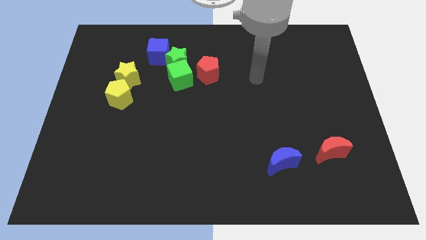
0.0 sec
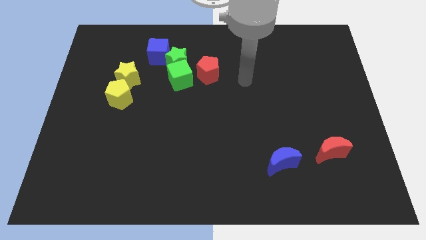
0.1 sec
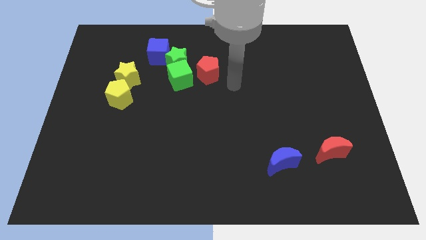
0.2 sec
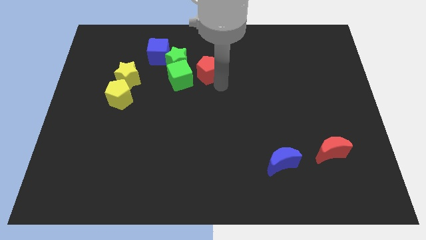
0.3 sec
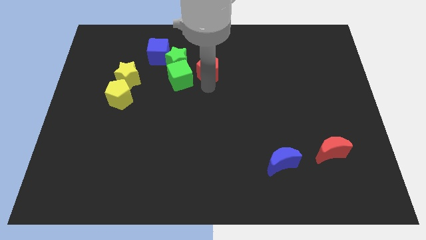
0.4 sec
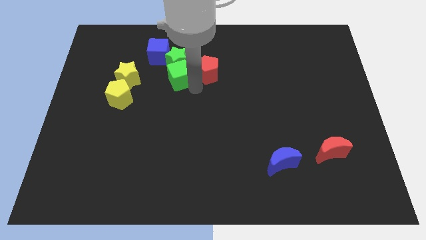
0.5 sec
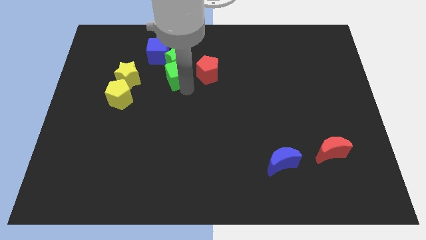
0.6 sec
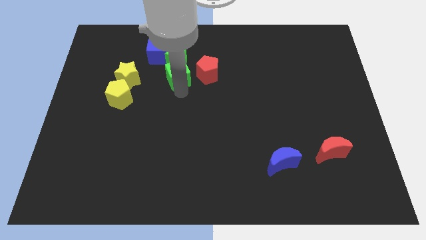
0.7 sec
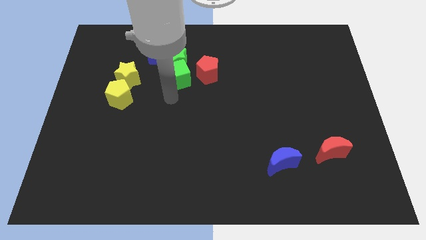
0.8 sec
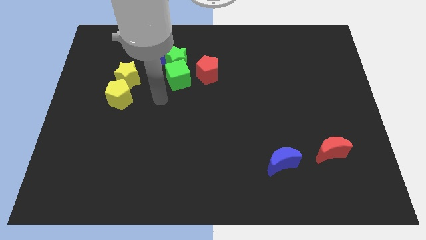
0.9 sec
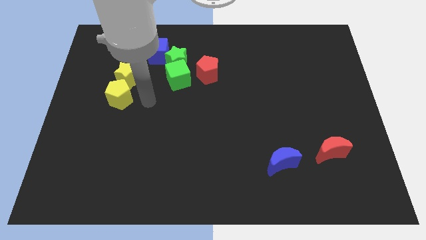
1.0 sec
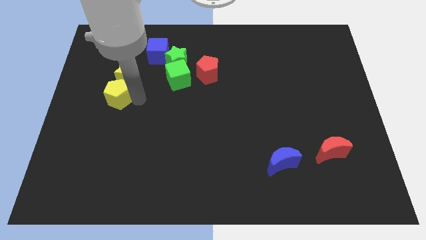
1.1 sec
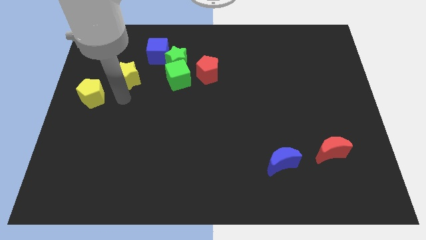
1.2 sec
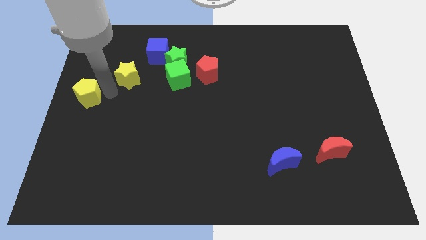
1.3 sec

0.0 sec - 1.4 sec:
pull the yellow star apart from the yellow pentagon

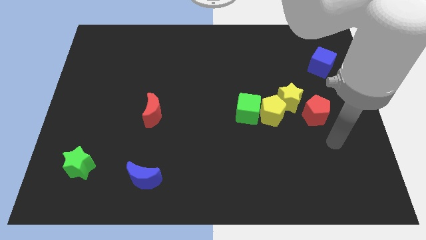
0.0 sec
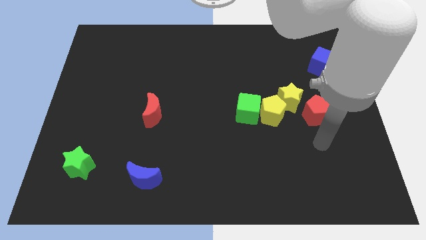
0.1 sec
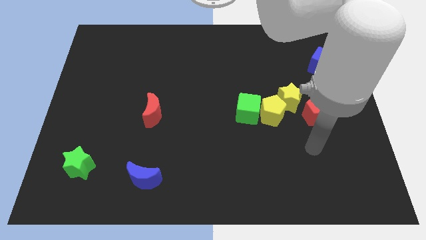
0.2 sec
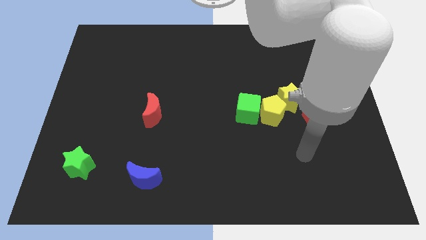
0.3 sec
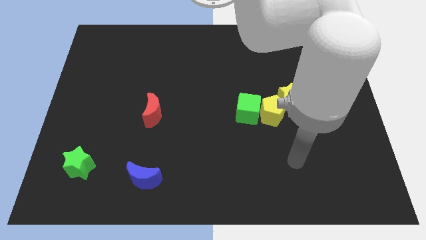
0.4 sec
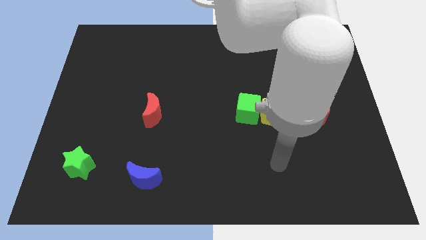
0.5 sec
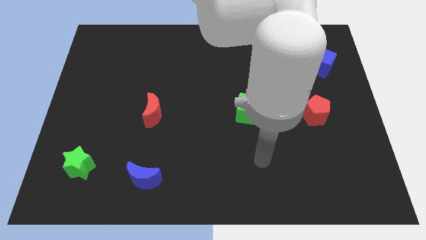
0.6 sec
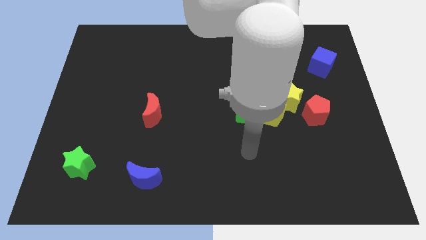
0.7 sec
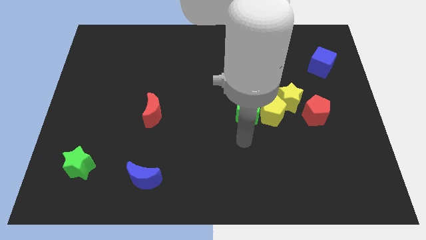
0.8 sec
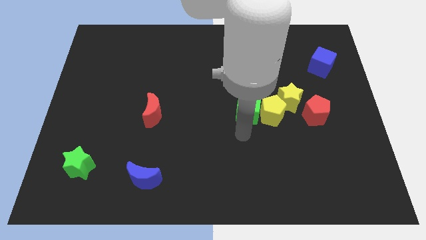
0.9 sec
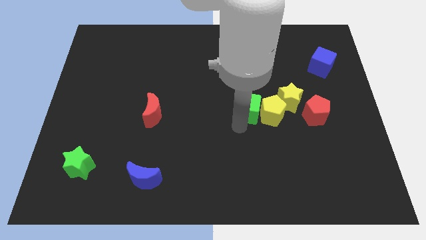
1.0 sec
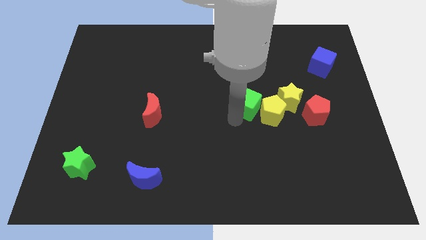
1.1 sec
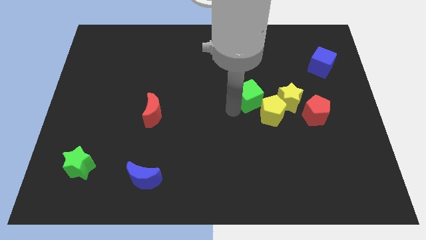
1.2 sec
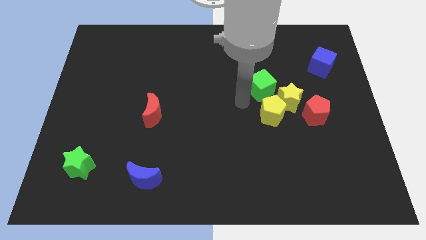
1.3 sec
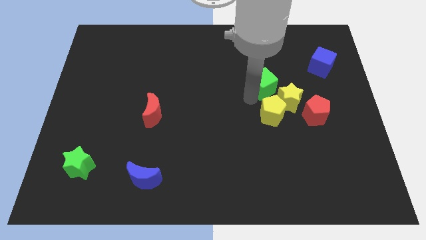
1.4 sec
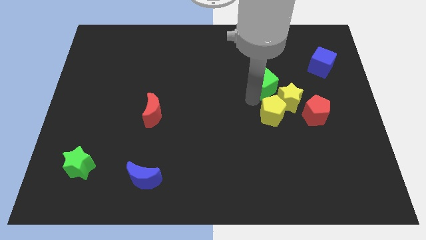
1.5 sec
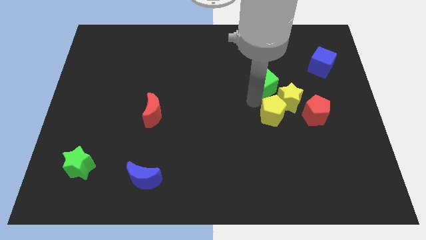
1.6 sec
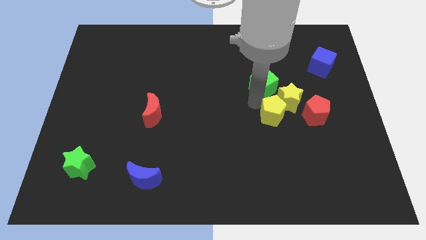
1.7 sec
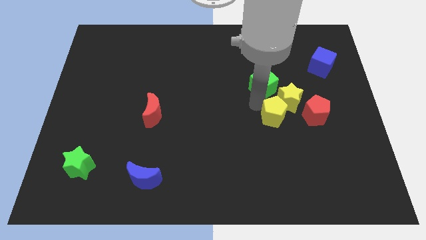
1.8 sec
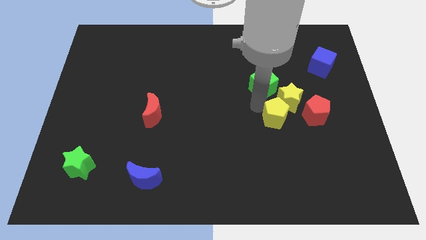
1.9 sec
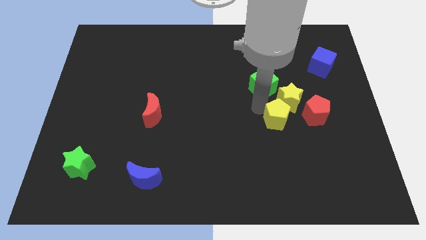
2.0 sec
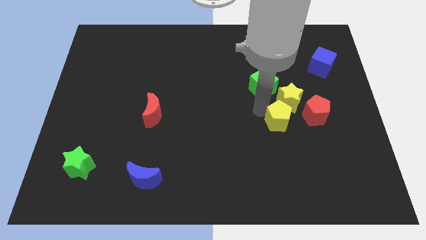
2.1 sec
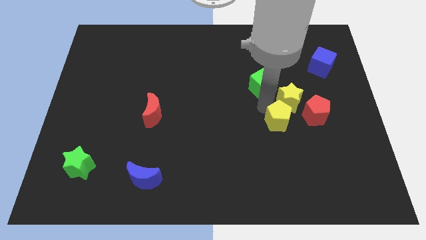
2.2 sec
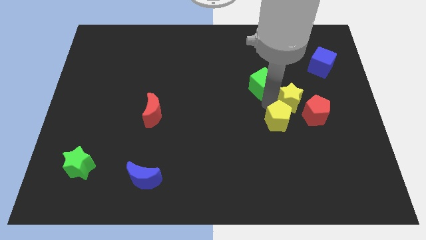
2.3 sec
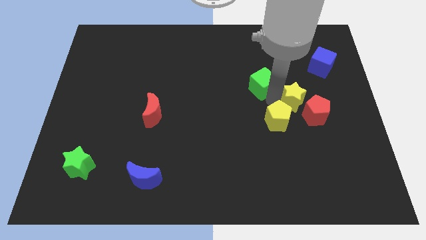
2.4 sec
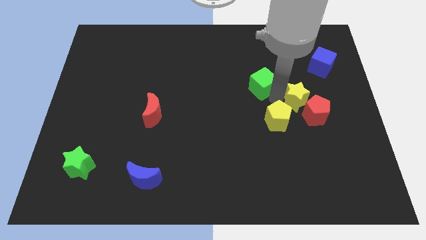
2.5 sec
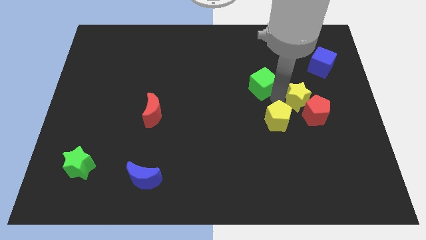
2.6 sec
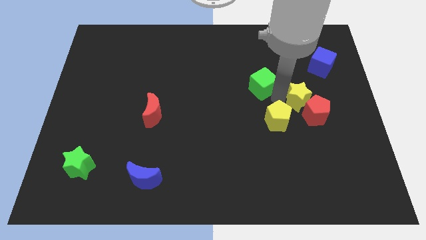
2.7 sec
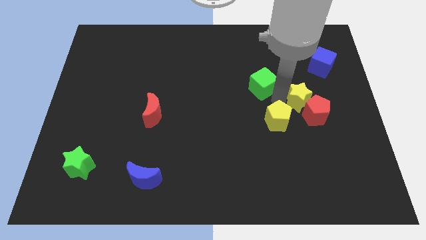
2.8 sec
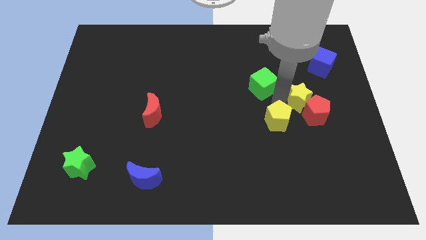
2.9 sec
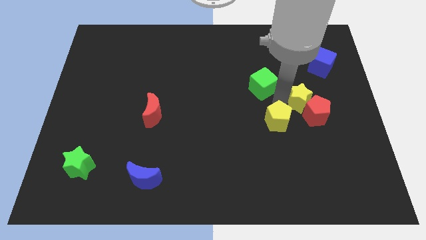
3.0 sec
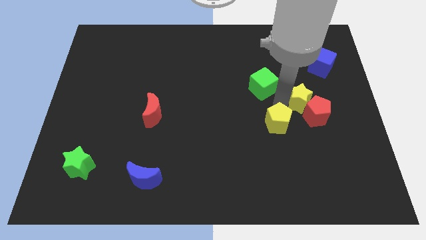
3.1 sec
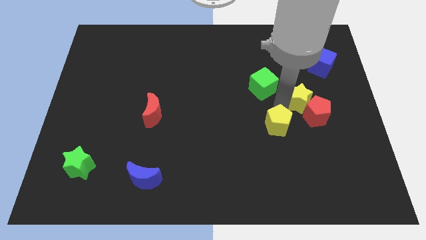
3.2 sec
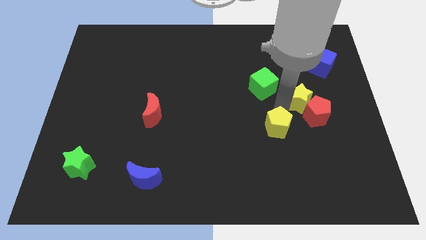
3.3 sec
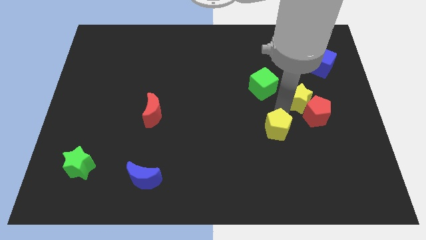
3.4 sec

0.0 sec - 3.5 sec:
pull the yellow pentagon apart from the green cube and yellow star

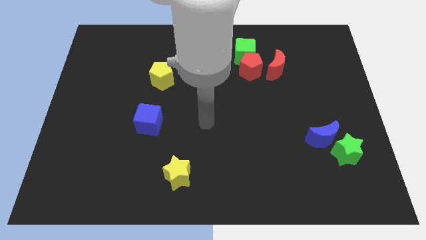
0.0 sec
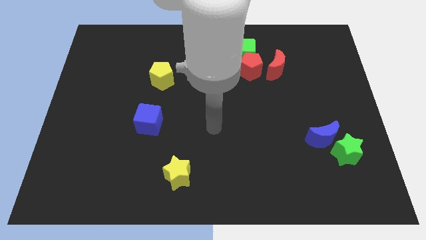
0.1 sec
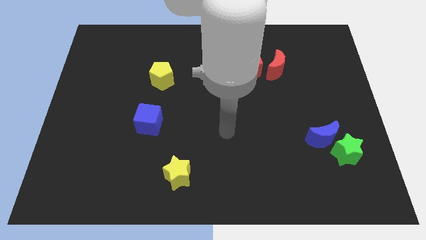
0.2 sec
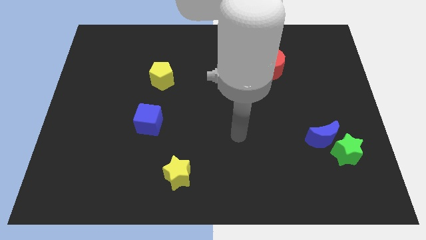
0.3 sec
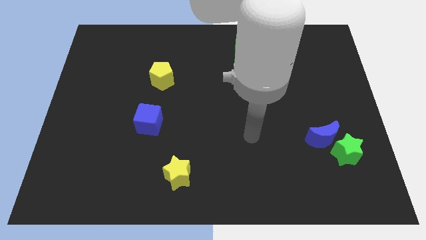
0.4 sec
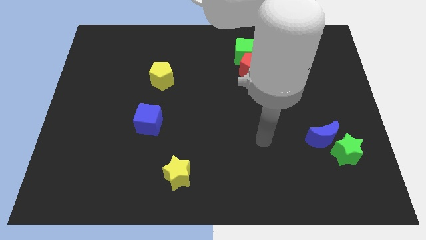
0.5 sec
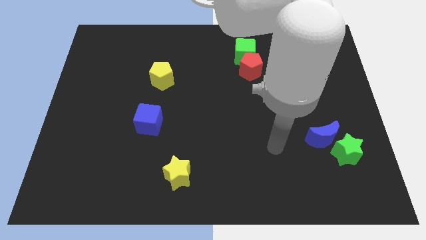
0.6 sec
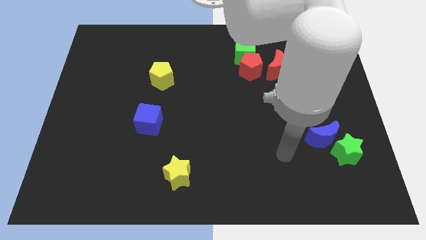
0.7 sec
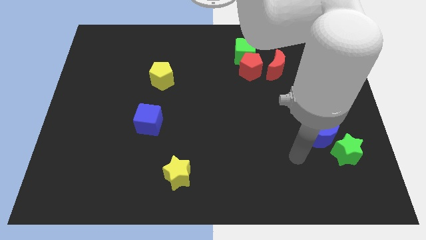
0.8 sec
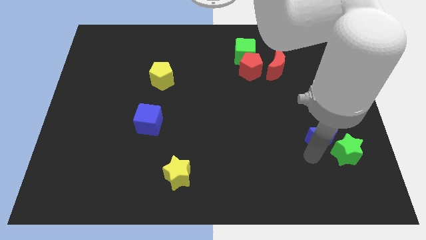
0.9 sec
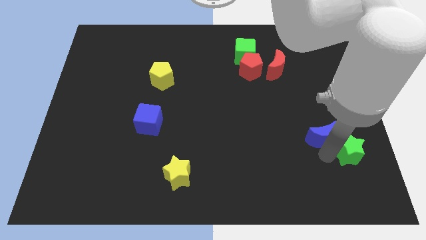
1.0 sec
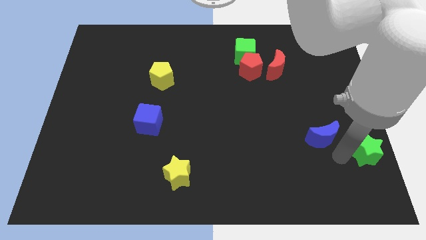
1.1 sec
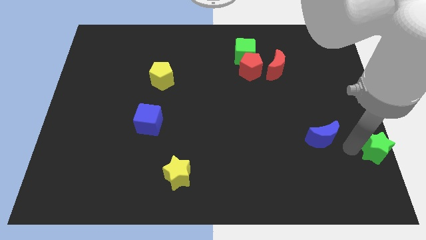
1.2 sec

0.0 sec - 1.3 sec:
separate the blue moon from the green star

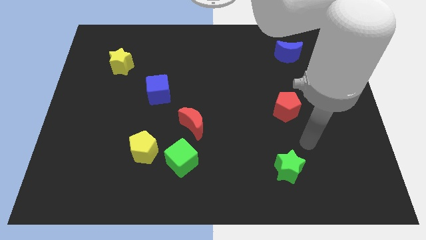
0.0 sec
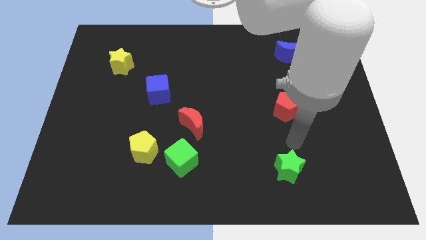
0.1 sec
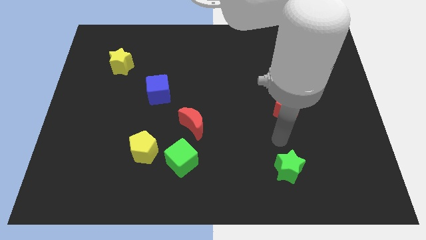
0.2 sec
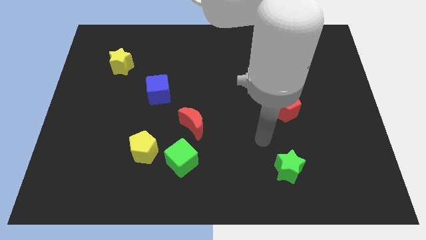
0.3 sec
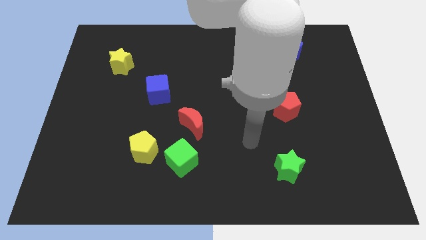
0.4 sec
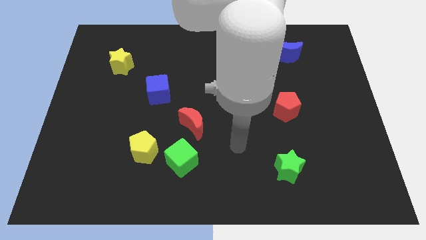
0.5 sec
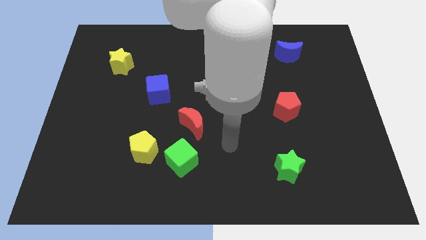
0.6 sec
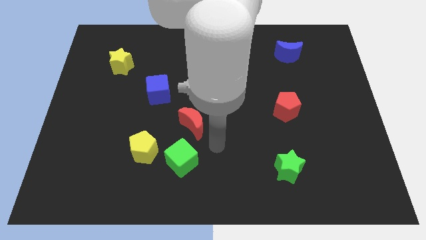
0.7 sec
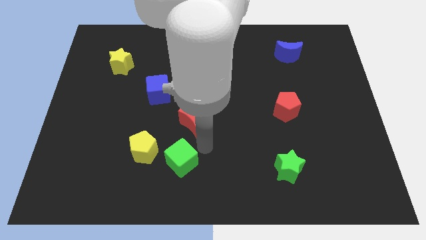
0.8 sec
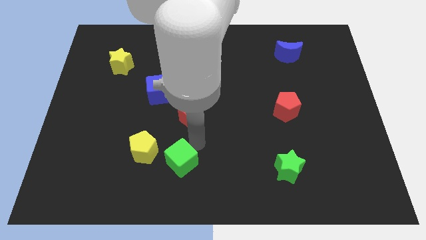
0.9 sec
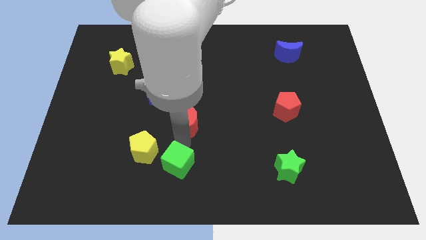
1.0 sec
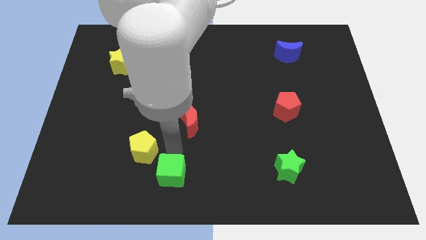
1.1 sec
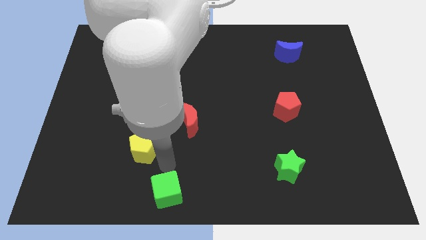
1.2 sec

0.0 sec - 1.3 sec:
separate the yellow pentagon from the green cube

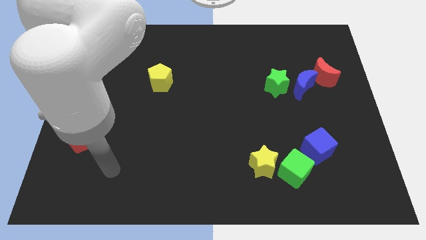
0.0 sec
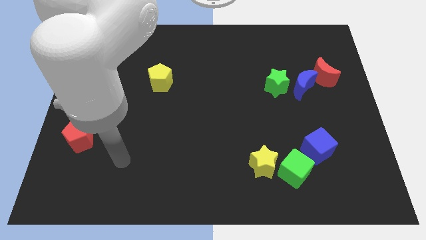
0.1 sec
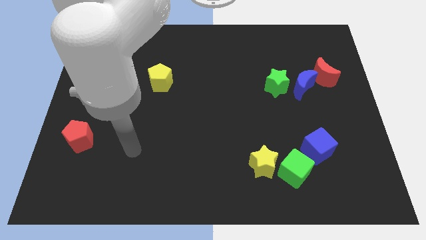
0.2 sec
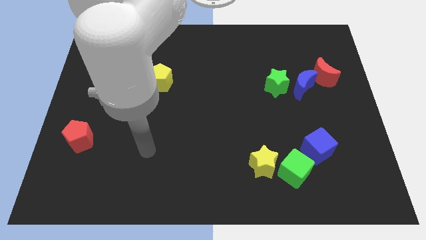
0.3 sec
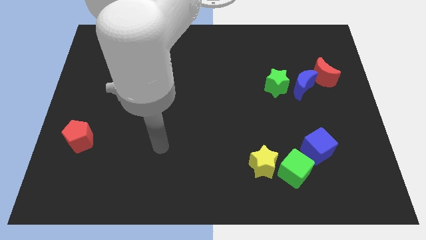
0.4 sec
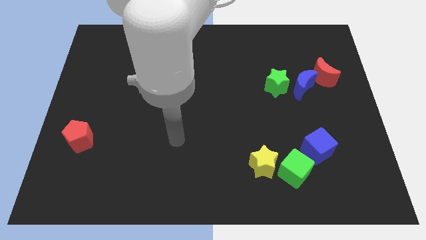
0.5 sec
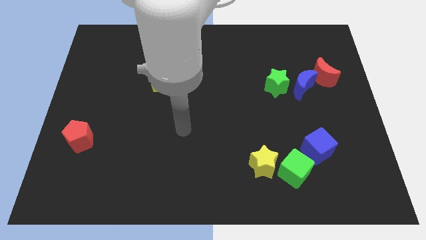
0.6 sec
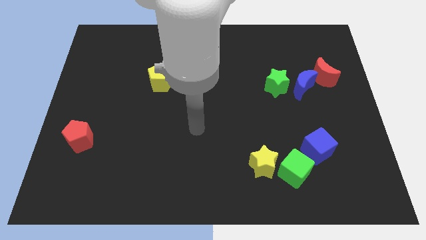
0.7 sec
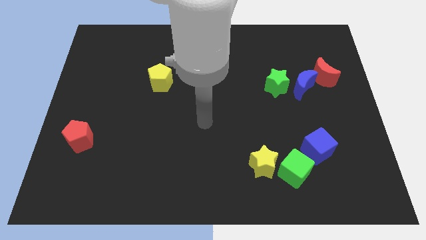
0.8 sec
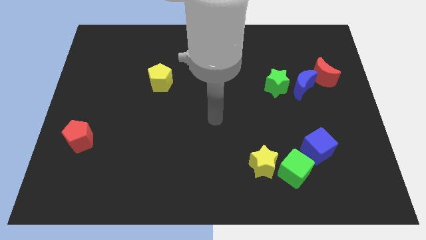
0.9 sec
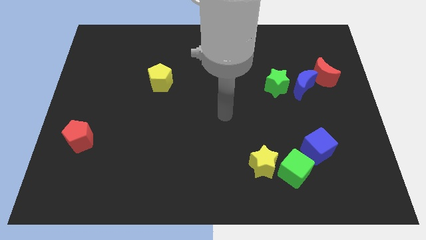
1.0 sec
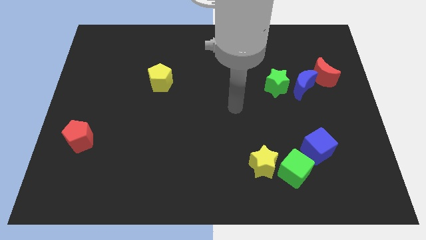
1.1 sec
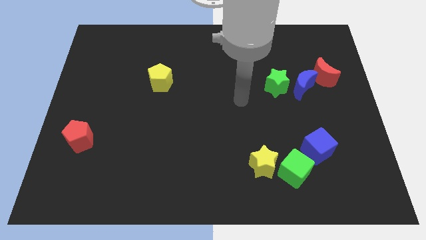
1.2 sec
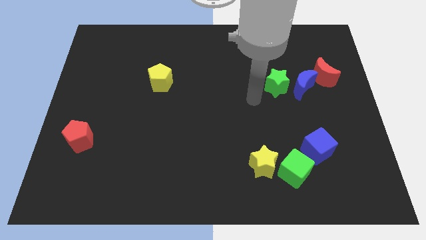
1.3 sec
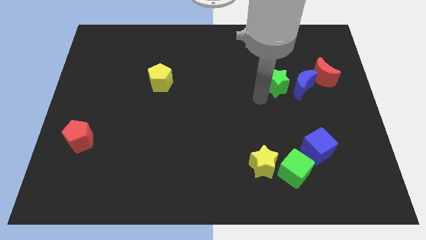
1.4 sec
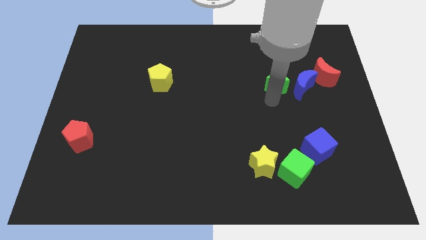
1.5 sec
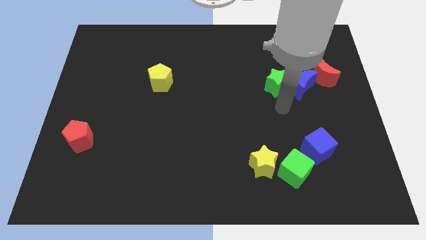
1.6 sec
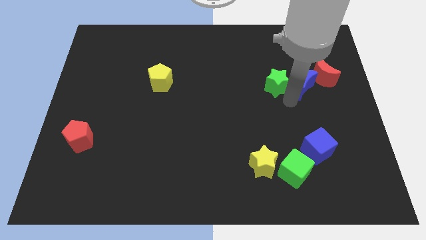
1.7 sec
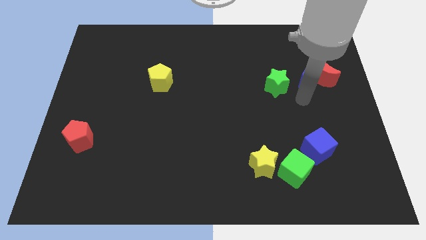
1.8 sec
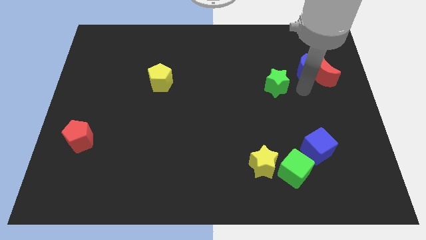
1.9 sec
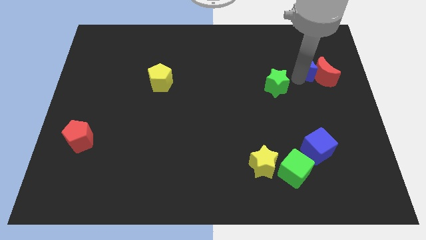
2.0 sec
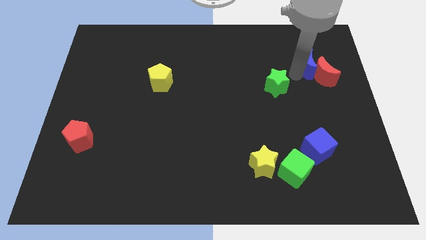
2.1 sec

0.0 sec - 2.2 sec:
separate the green star from the blue moon
